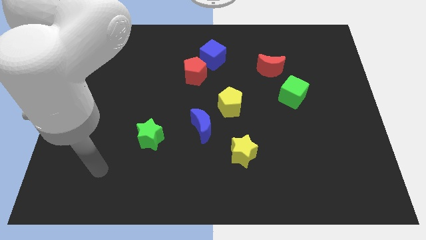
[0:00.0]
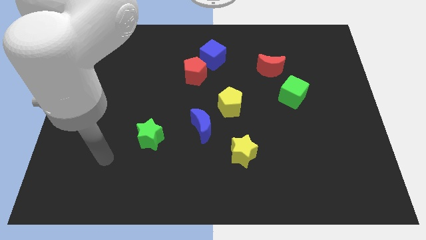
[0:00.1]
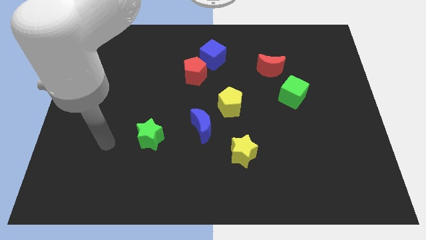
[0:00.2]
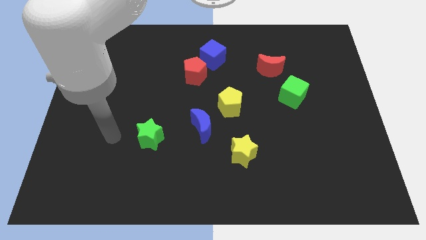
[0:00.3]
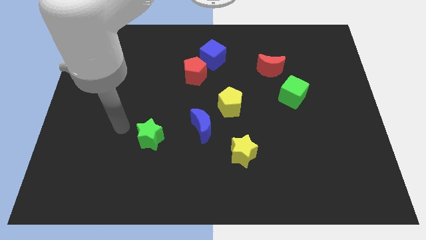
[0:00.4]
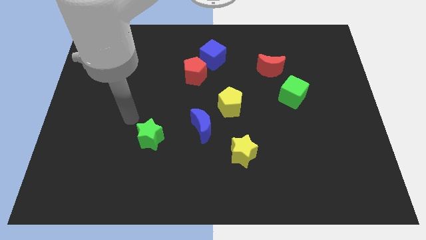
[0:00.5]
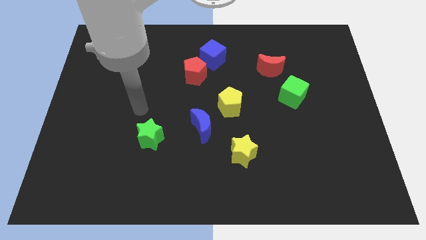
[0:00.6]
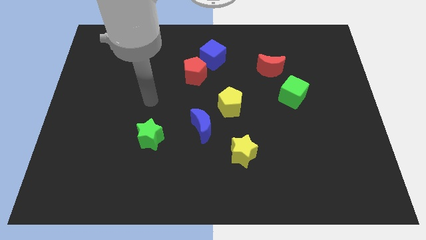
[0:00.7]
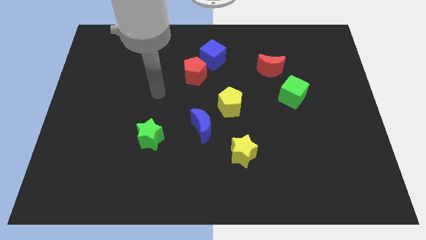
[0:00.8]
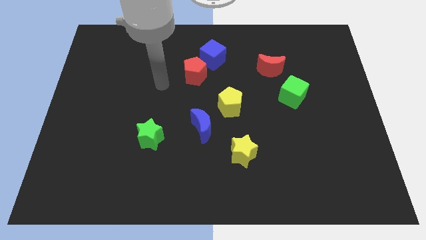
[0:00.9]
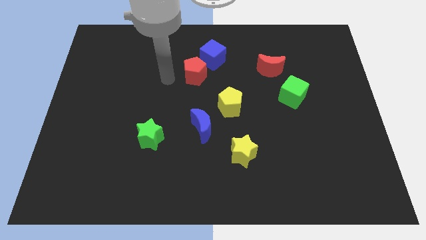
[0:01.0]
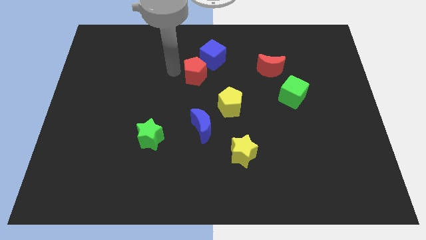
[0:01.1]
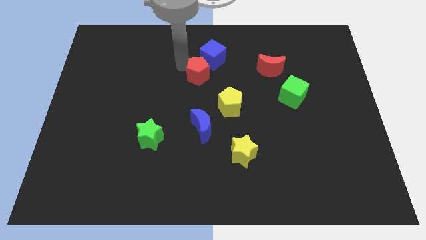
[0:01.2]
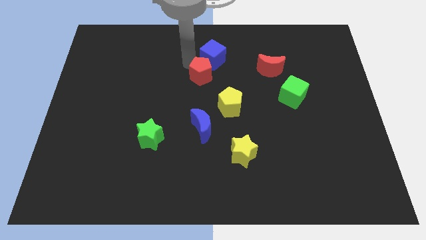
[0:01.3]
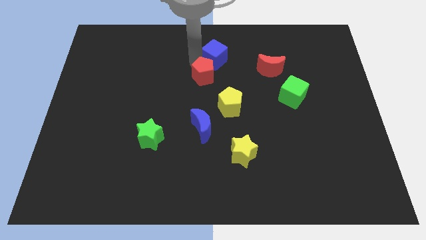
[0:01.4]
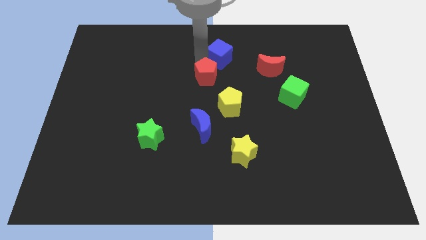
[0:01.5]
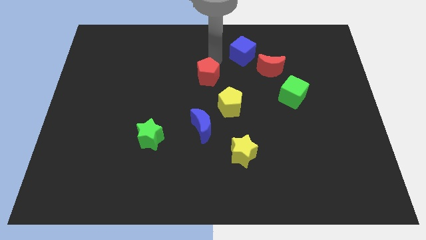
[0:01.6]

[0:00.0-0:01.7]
move the red pentagon away from the blue cube

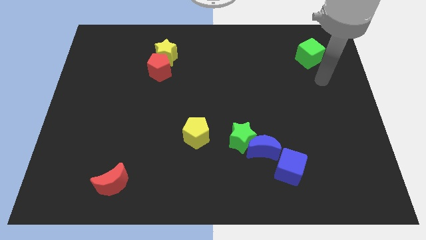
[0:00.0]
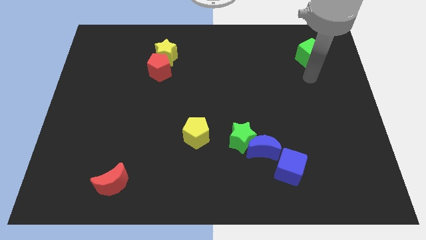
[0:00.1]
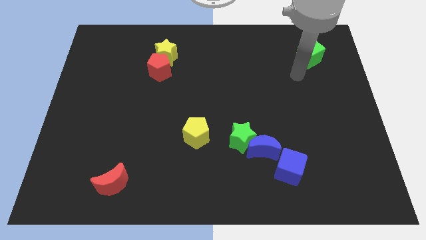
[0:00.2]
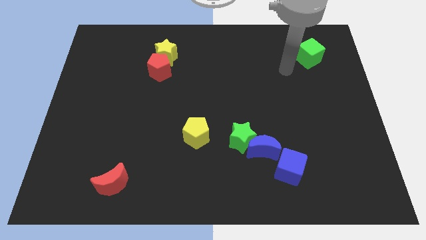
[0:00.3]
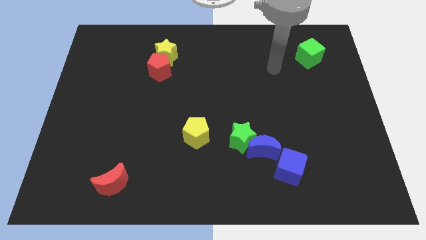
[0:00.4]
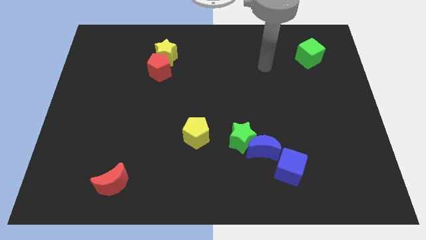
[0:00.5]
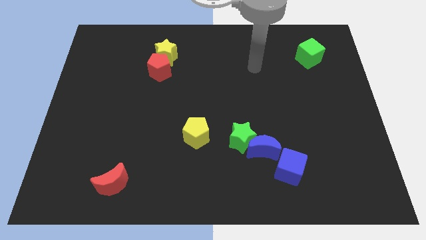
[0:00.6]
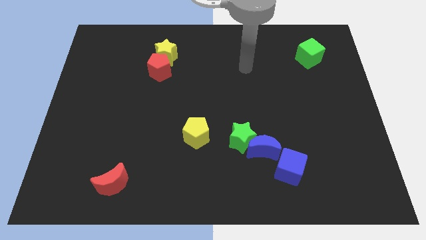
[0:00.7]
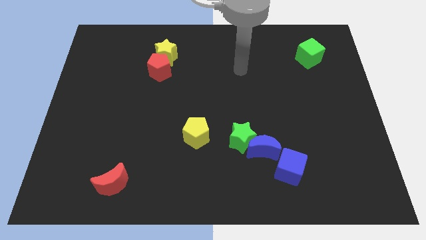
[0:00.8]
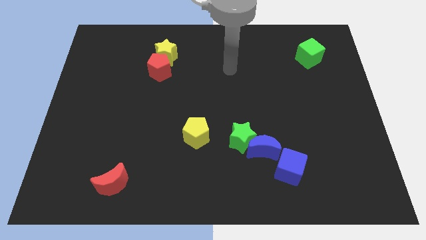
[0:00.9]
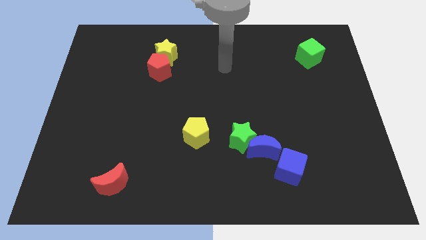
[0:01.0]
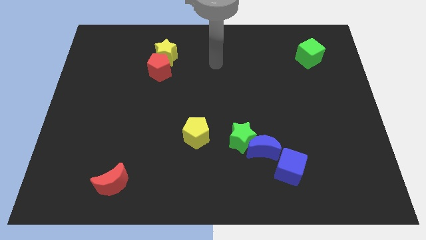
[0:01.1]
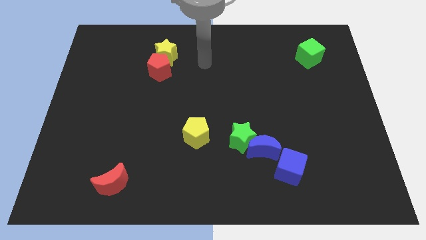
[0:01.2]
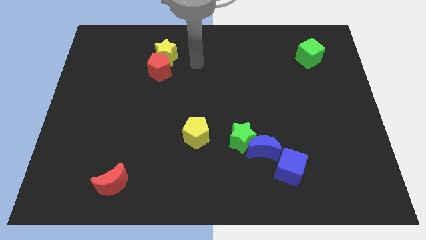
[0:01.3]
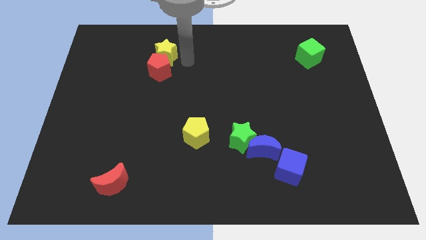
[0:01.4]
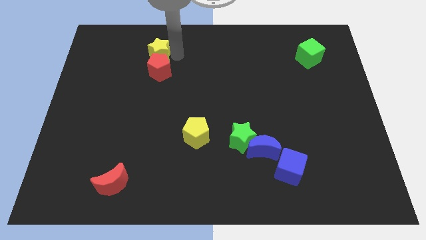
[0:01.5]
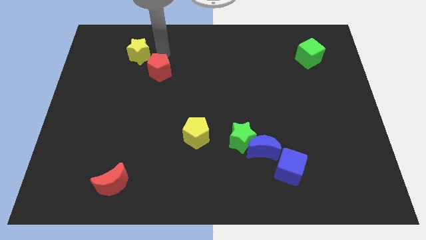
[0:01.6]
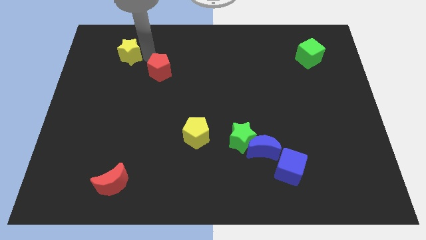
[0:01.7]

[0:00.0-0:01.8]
pull the red pentagon apart from the yellow star

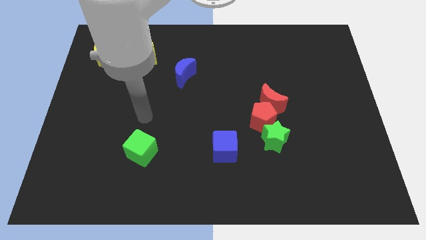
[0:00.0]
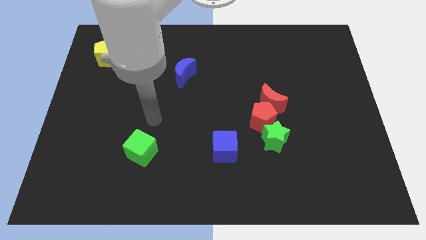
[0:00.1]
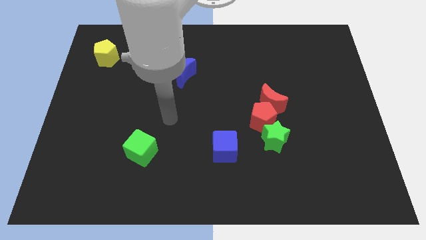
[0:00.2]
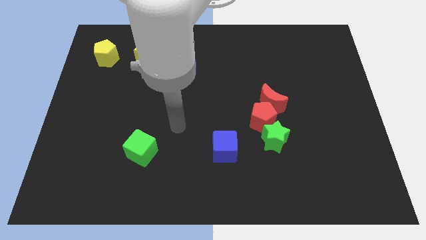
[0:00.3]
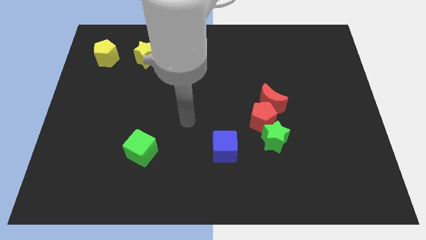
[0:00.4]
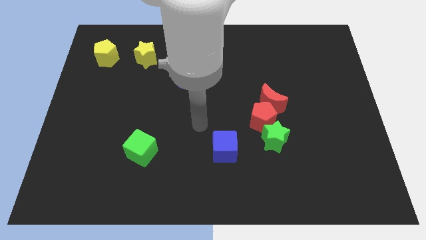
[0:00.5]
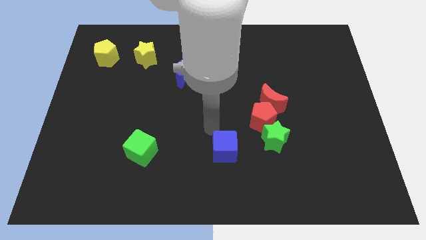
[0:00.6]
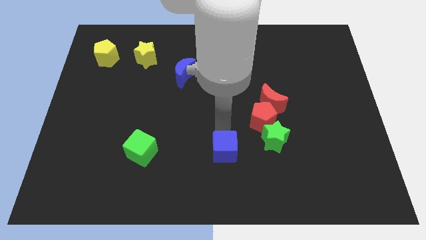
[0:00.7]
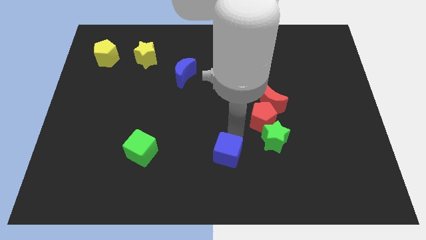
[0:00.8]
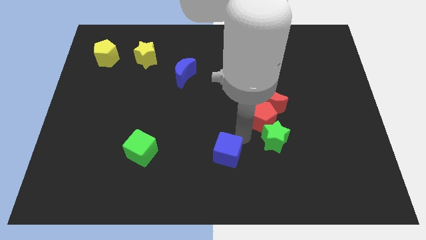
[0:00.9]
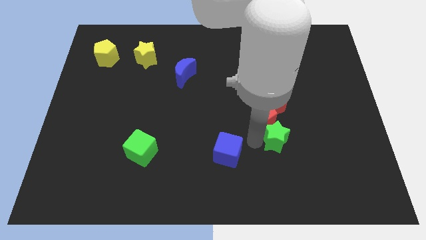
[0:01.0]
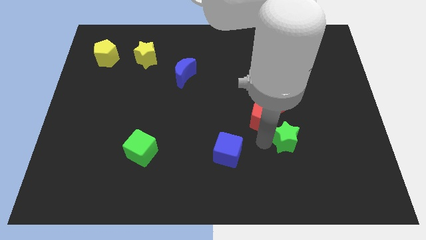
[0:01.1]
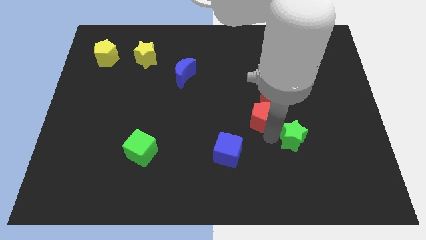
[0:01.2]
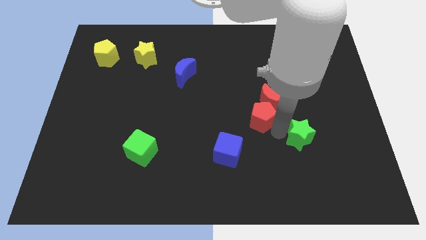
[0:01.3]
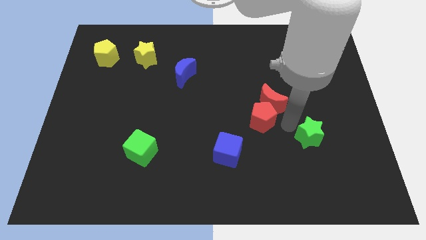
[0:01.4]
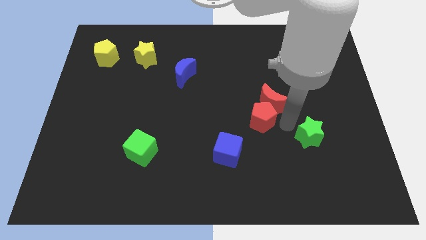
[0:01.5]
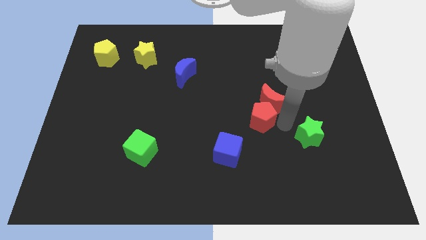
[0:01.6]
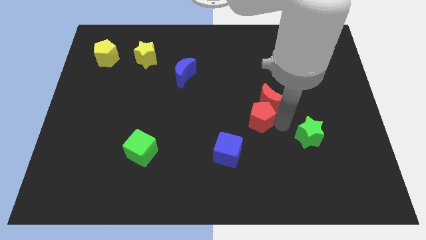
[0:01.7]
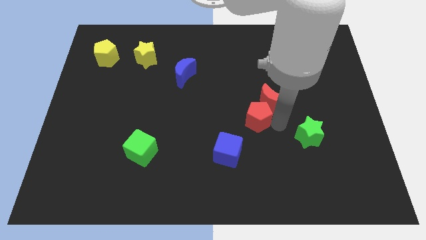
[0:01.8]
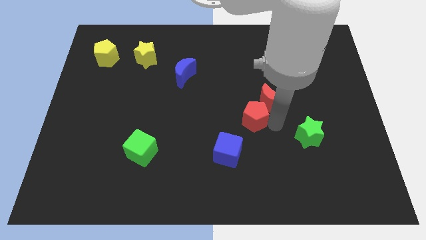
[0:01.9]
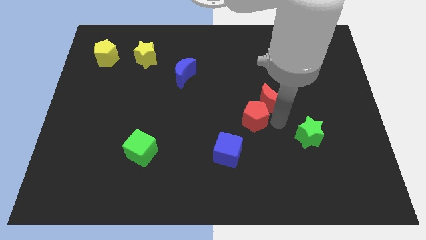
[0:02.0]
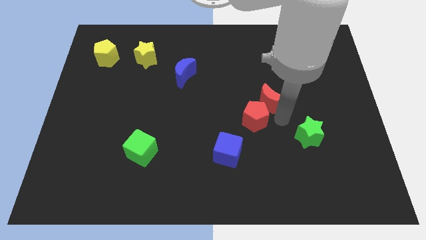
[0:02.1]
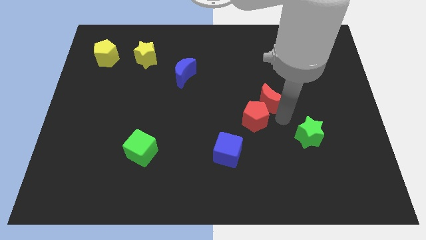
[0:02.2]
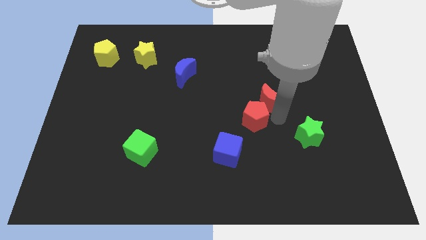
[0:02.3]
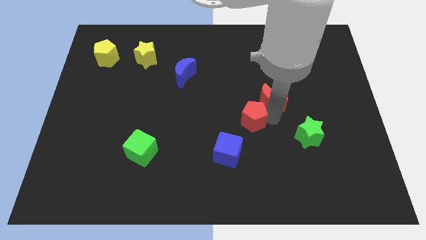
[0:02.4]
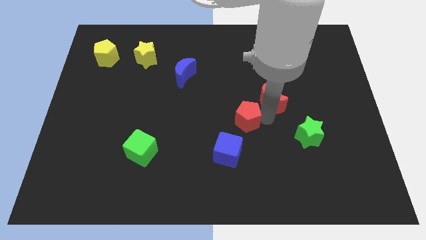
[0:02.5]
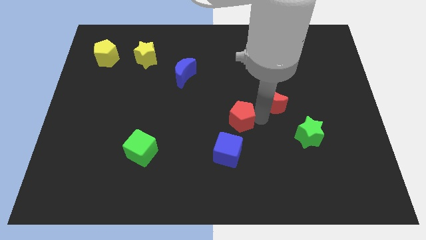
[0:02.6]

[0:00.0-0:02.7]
move the red pentagon away from the red moon and green star

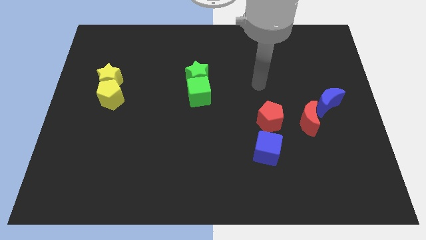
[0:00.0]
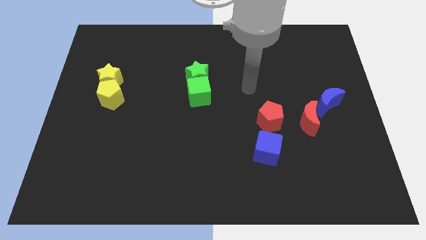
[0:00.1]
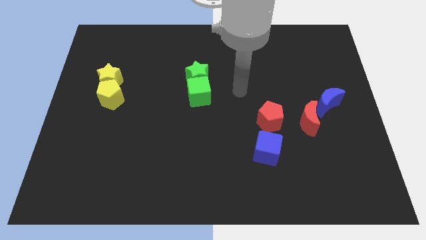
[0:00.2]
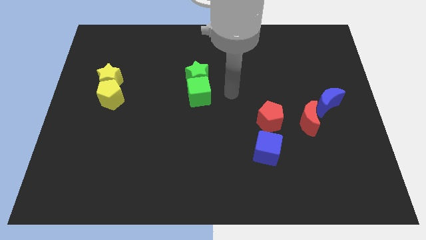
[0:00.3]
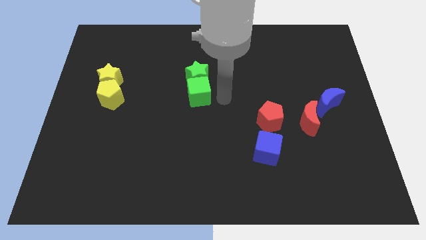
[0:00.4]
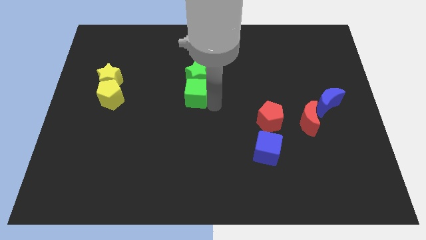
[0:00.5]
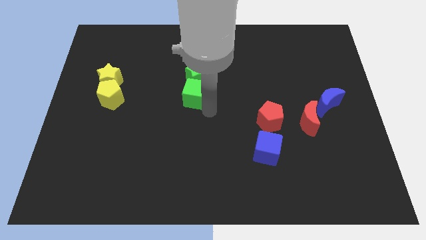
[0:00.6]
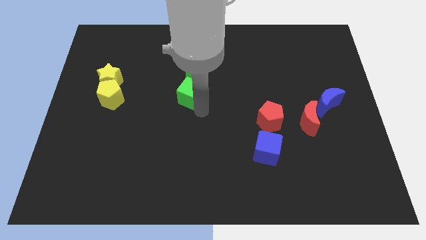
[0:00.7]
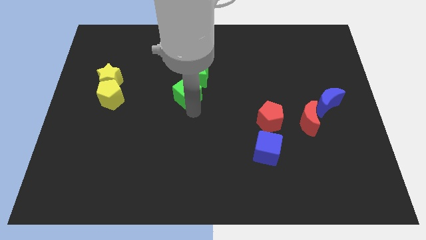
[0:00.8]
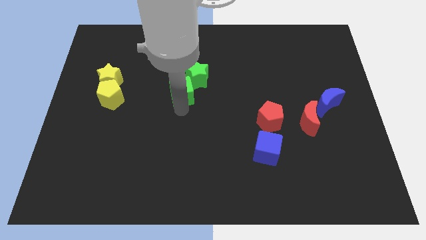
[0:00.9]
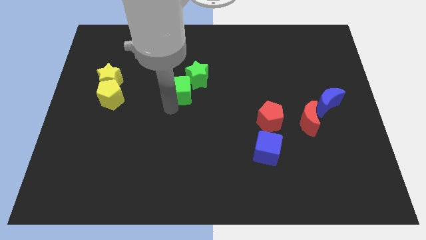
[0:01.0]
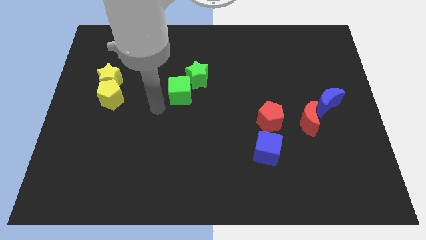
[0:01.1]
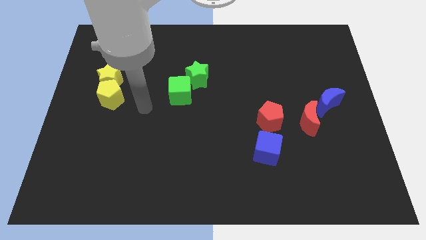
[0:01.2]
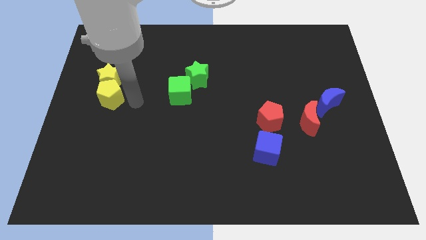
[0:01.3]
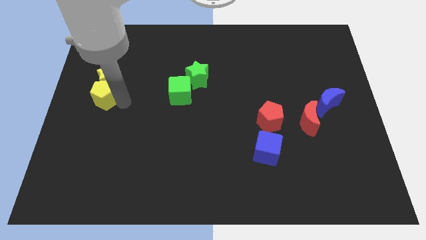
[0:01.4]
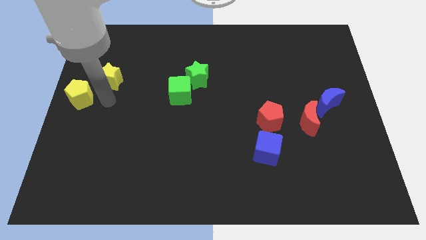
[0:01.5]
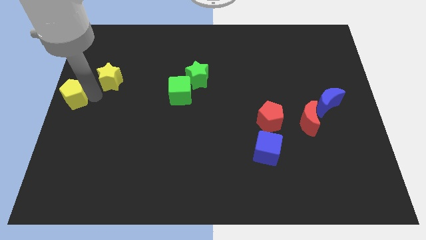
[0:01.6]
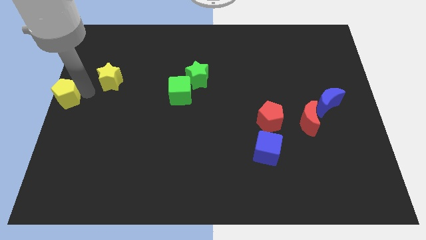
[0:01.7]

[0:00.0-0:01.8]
move the yellow star away from the yellow pentagon

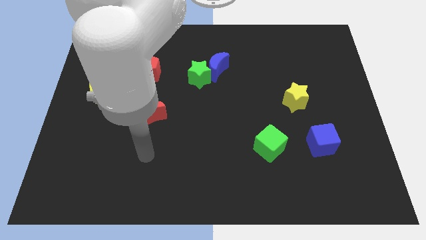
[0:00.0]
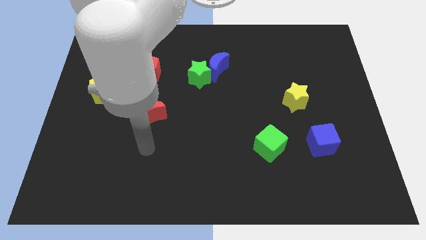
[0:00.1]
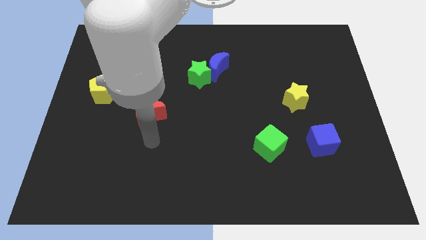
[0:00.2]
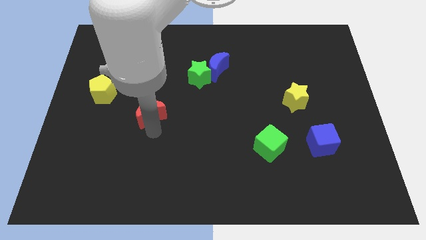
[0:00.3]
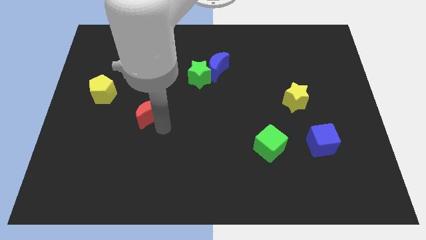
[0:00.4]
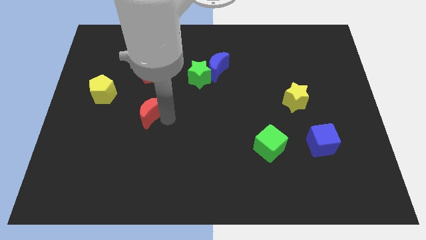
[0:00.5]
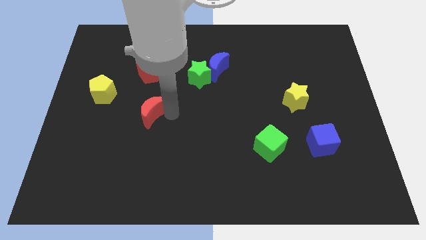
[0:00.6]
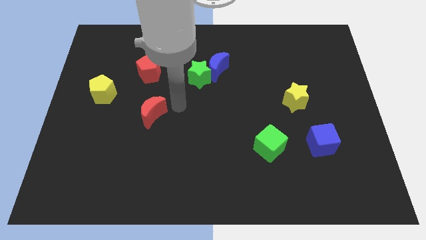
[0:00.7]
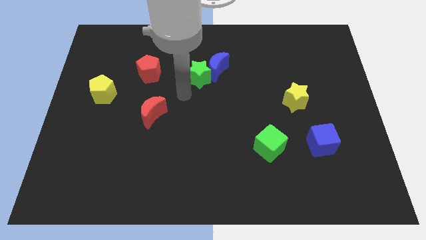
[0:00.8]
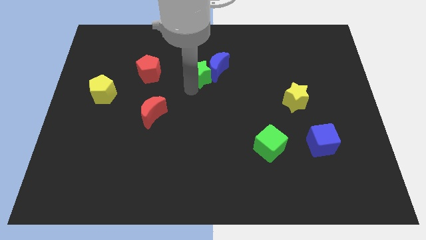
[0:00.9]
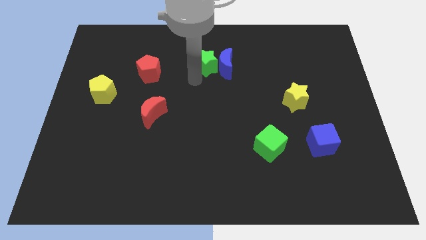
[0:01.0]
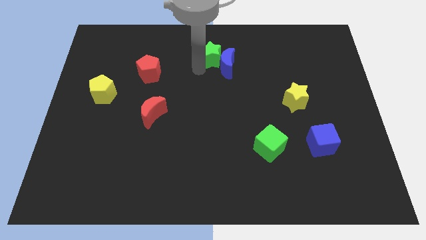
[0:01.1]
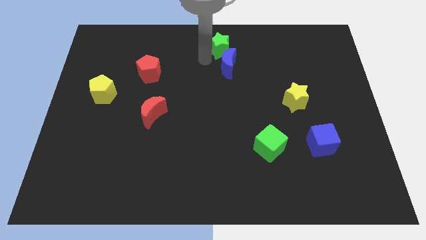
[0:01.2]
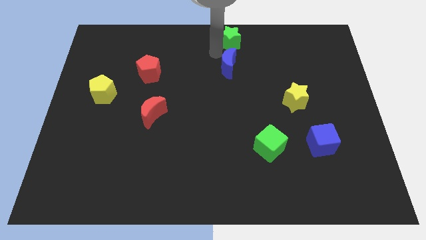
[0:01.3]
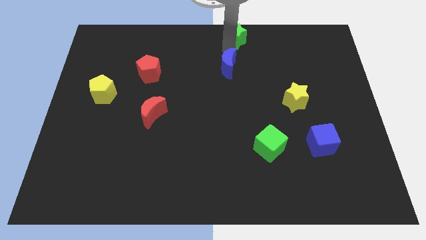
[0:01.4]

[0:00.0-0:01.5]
move the blue moon away from the green star
